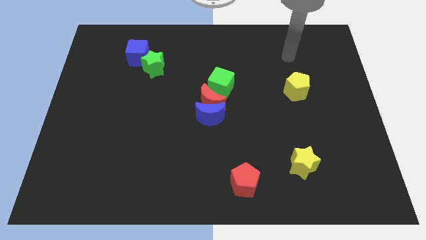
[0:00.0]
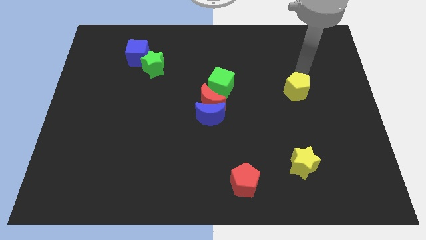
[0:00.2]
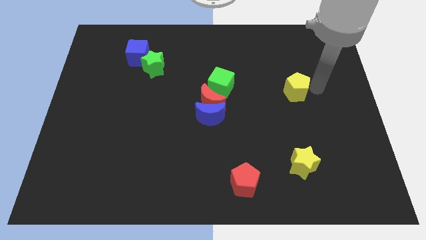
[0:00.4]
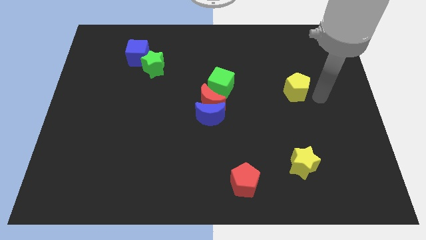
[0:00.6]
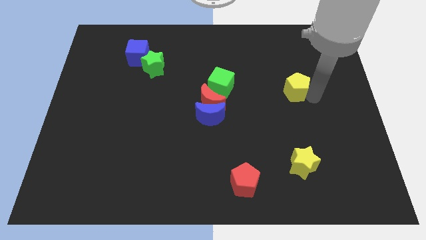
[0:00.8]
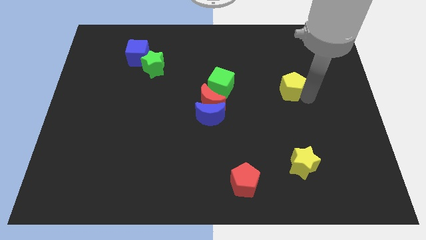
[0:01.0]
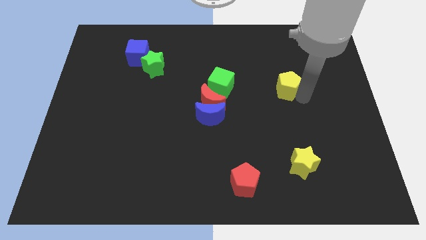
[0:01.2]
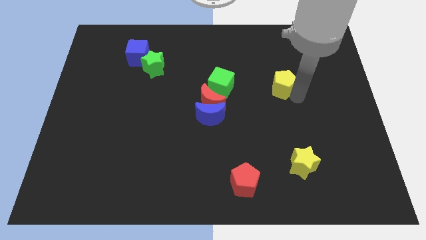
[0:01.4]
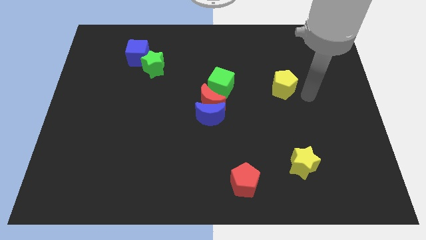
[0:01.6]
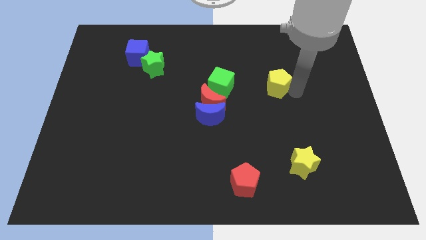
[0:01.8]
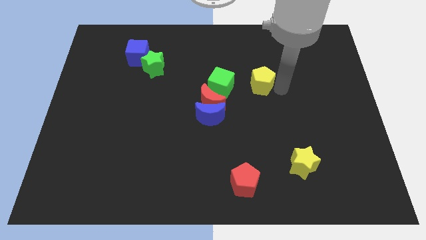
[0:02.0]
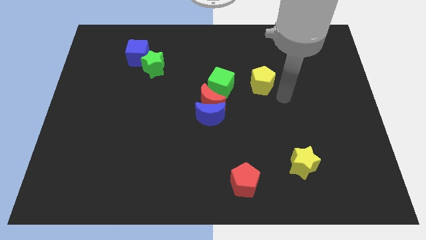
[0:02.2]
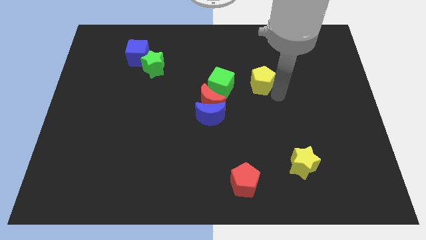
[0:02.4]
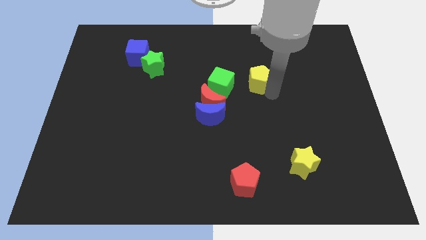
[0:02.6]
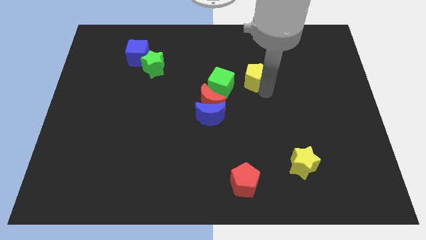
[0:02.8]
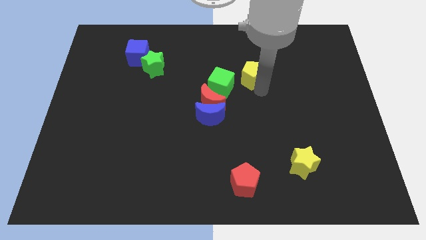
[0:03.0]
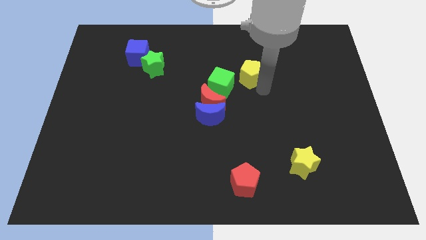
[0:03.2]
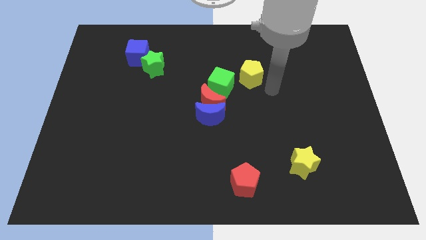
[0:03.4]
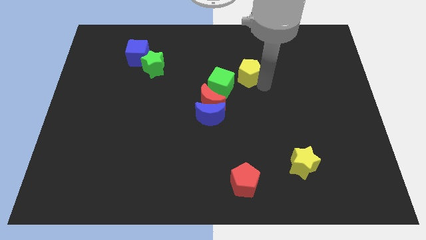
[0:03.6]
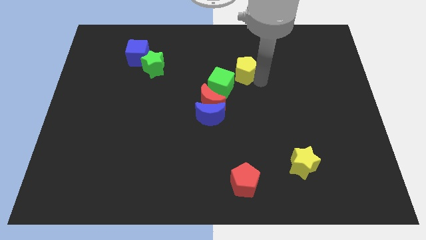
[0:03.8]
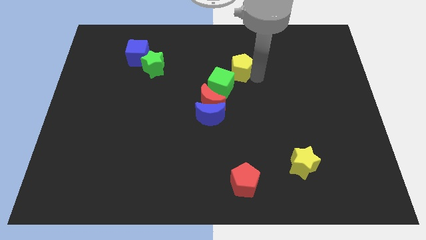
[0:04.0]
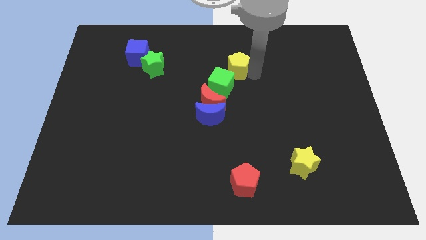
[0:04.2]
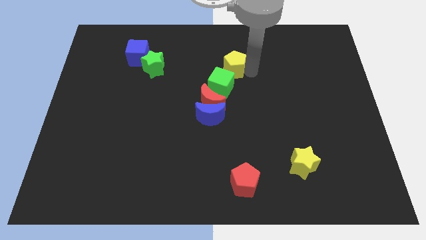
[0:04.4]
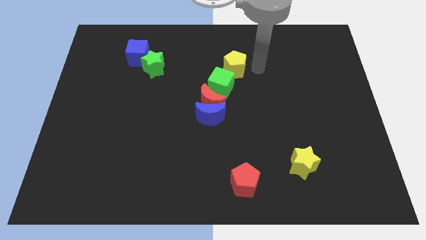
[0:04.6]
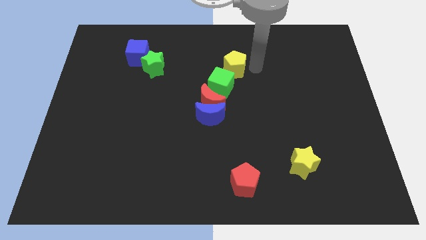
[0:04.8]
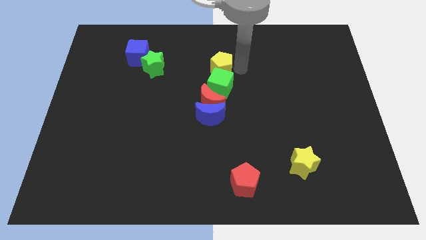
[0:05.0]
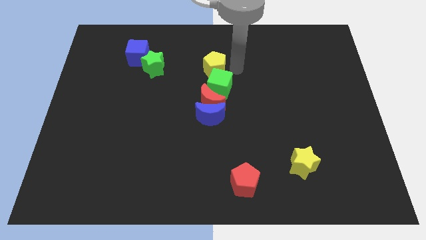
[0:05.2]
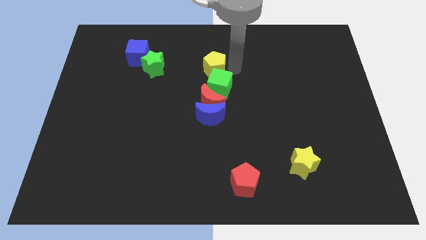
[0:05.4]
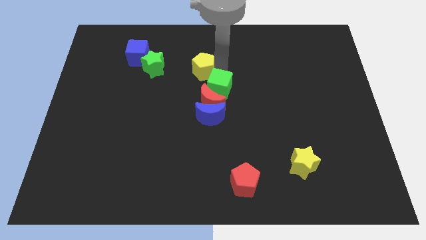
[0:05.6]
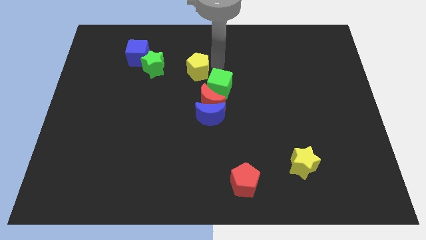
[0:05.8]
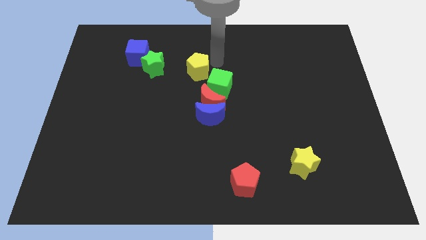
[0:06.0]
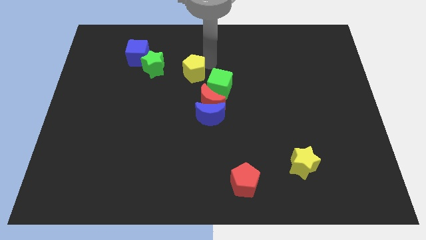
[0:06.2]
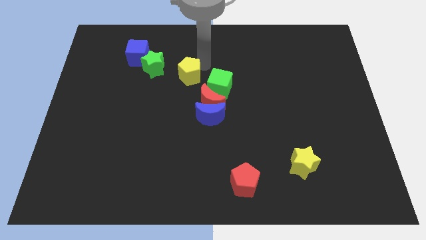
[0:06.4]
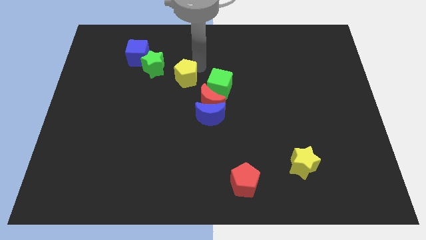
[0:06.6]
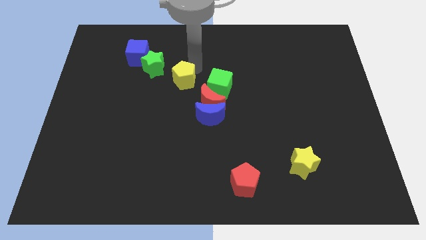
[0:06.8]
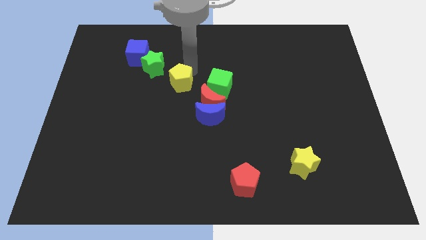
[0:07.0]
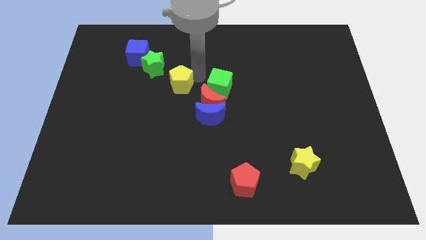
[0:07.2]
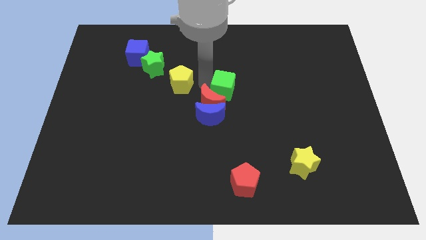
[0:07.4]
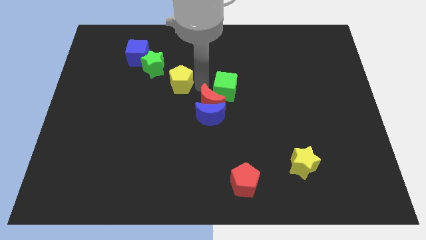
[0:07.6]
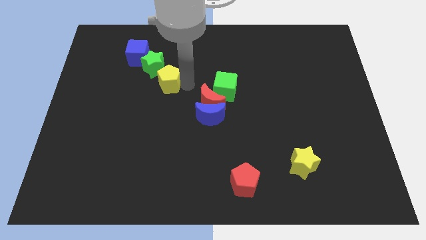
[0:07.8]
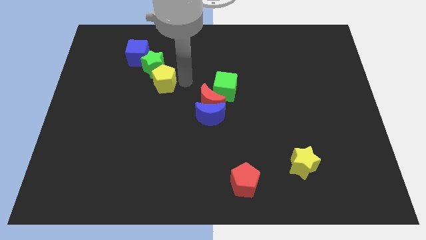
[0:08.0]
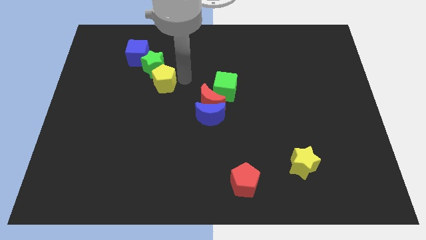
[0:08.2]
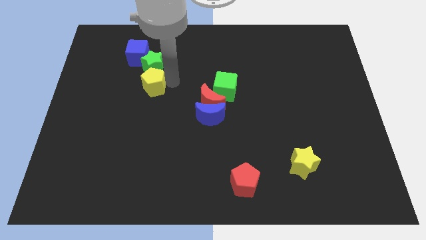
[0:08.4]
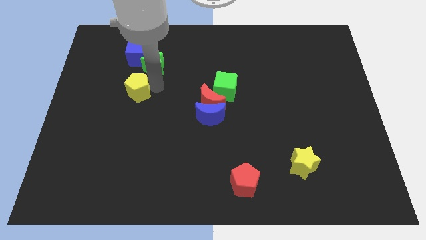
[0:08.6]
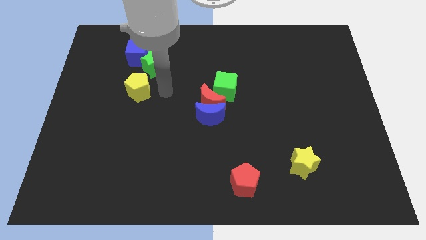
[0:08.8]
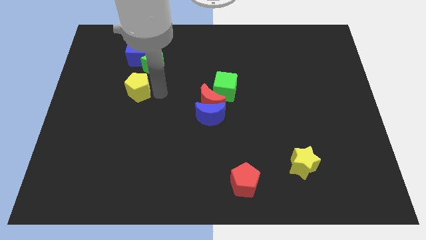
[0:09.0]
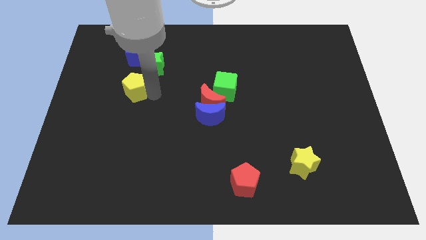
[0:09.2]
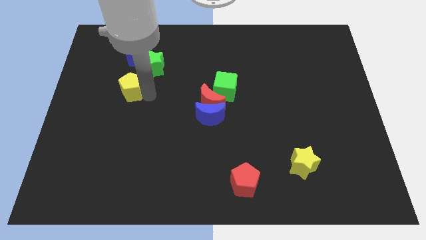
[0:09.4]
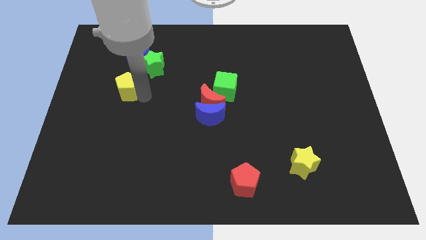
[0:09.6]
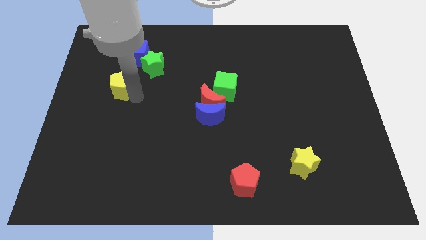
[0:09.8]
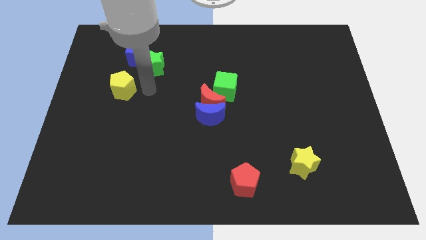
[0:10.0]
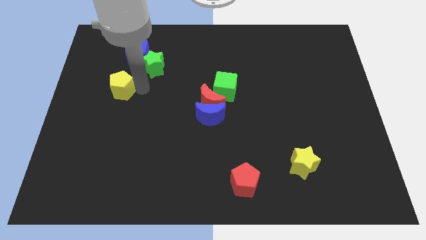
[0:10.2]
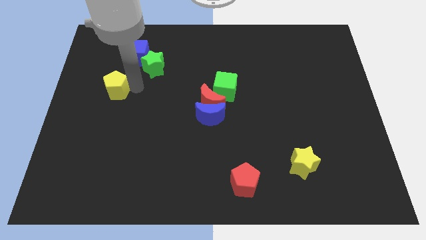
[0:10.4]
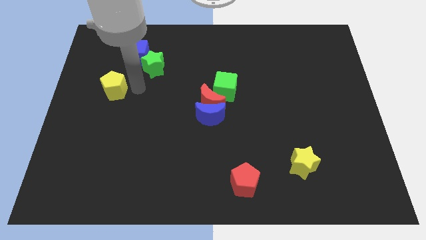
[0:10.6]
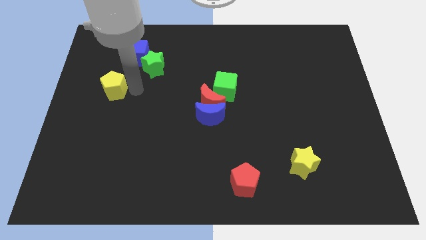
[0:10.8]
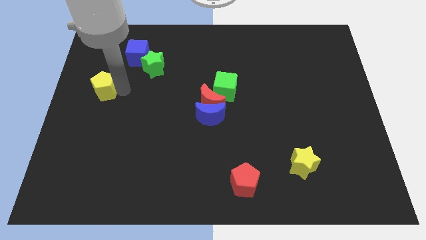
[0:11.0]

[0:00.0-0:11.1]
slide the yellow pentagon to the left side of the board
